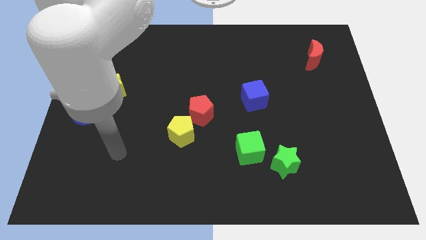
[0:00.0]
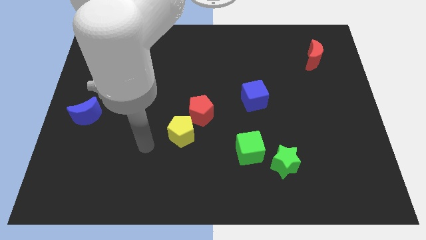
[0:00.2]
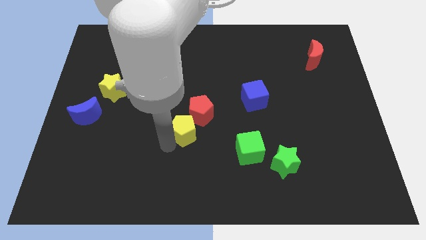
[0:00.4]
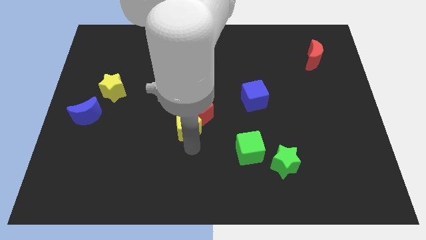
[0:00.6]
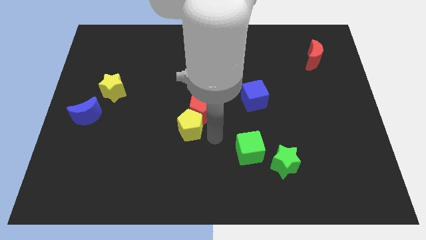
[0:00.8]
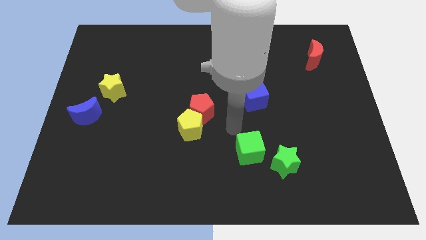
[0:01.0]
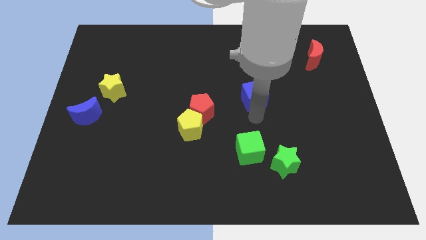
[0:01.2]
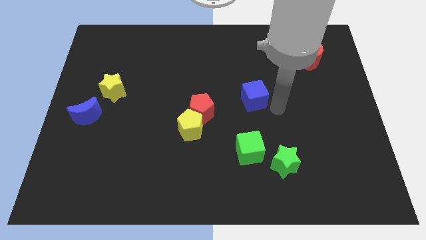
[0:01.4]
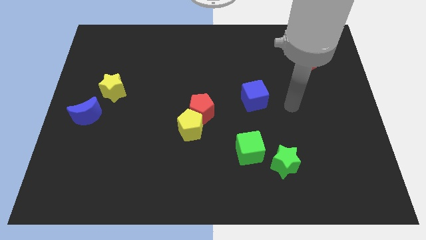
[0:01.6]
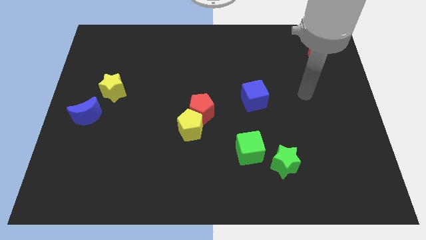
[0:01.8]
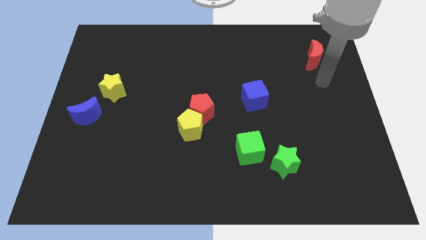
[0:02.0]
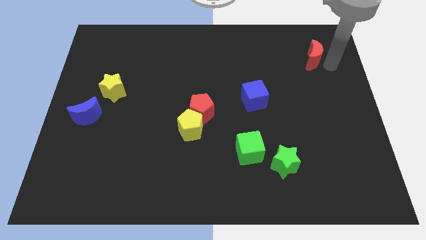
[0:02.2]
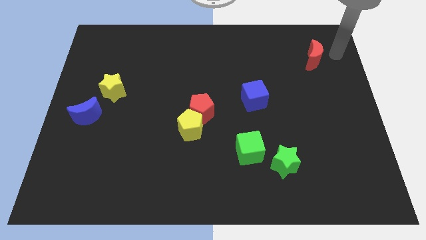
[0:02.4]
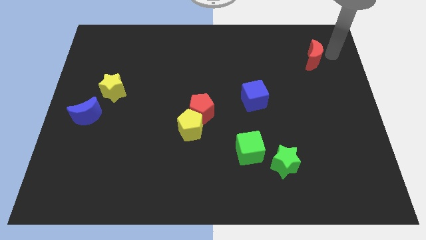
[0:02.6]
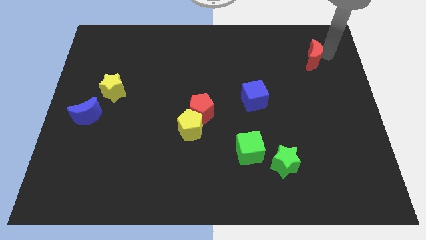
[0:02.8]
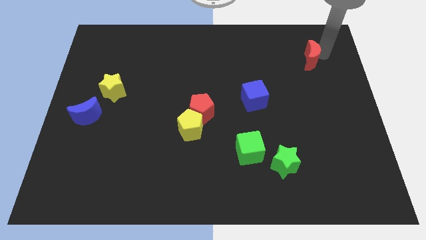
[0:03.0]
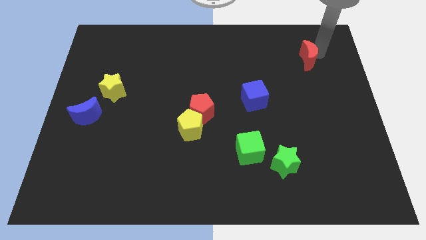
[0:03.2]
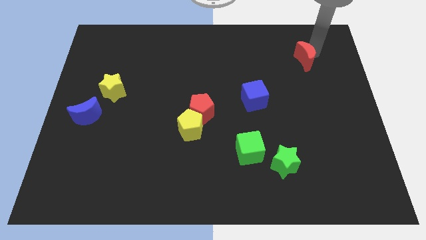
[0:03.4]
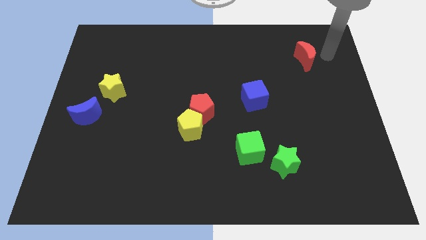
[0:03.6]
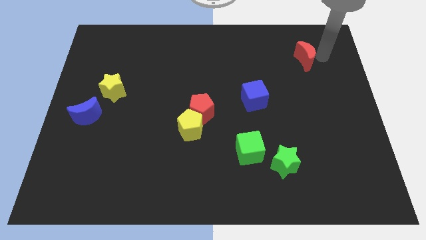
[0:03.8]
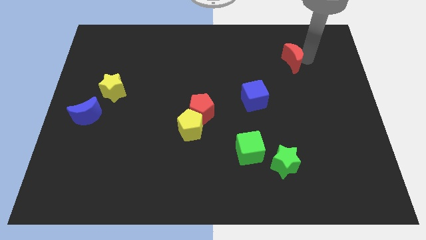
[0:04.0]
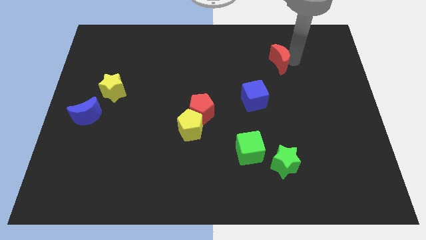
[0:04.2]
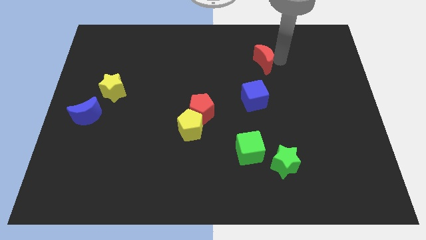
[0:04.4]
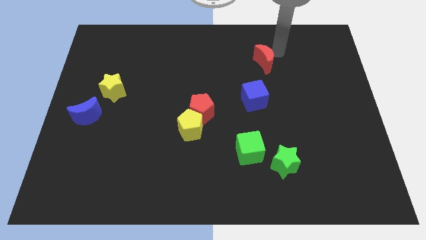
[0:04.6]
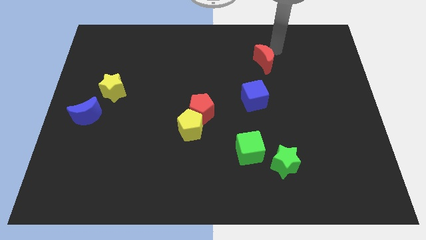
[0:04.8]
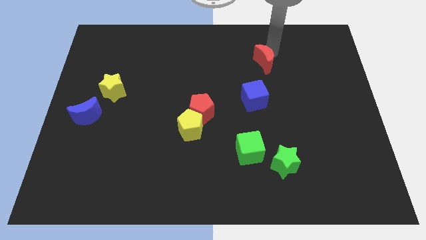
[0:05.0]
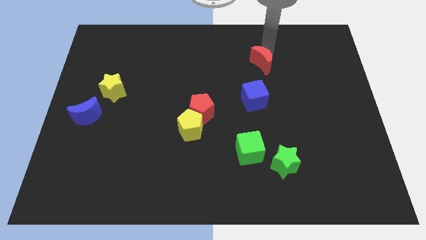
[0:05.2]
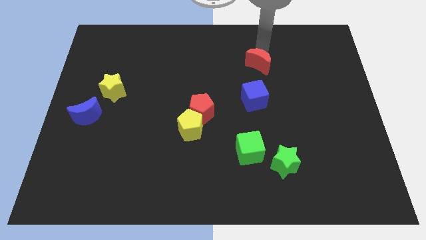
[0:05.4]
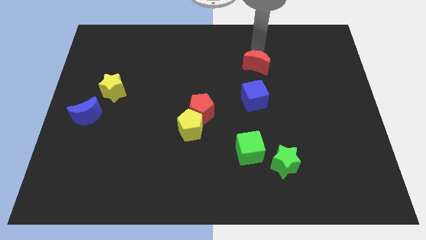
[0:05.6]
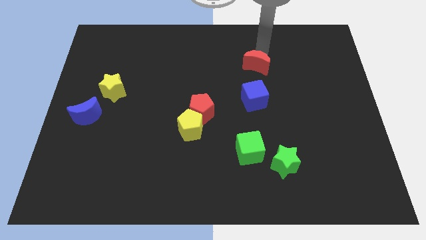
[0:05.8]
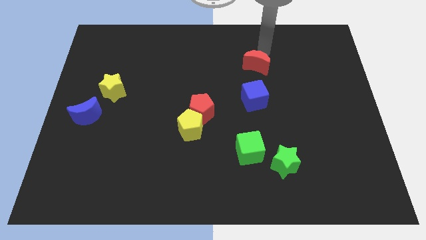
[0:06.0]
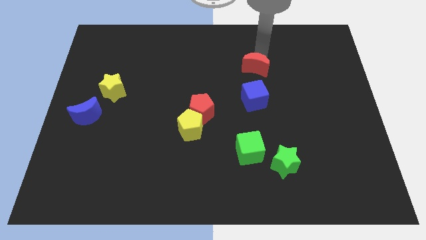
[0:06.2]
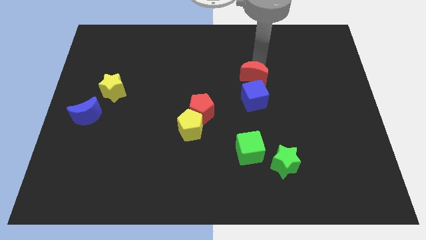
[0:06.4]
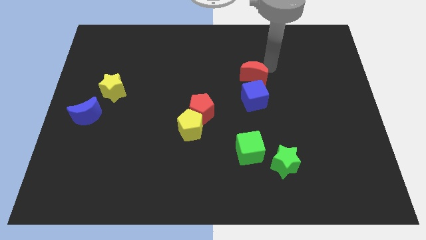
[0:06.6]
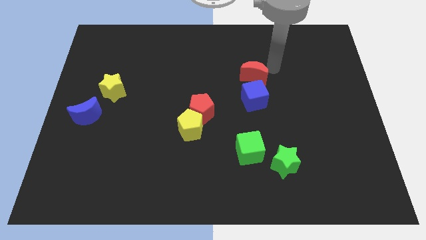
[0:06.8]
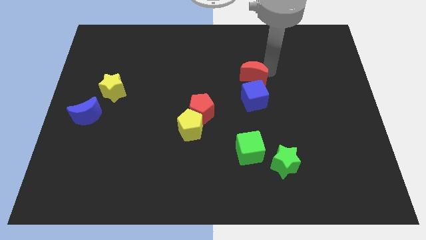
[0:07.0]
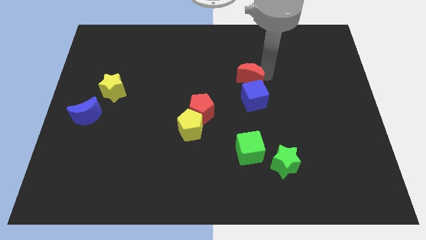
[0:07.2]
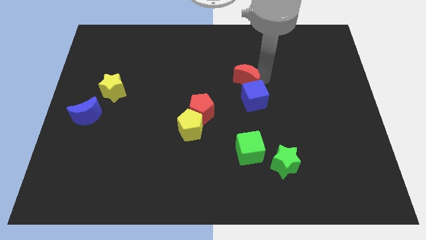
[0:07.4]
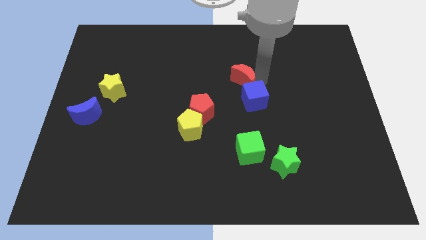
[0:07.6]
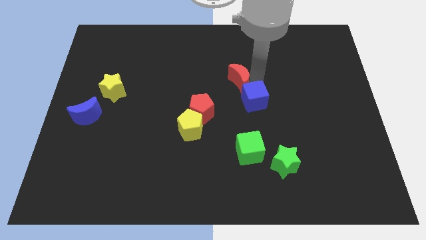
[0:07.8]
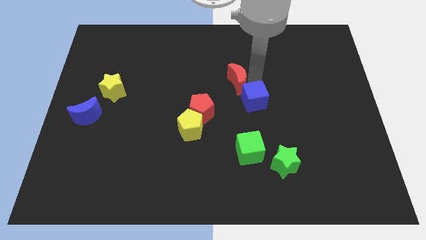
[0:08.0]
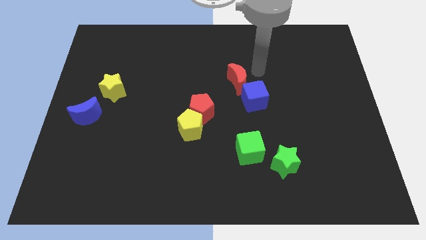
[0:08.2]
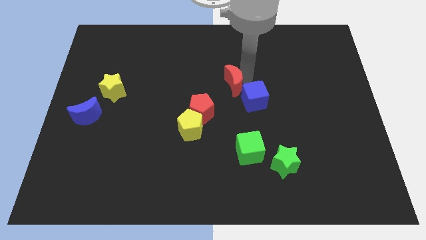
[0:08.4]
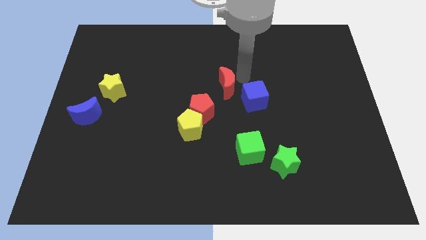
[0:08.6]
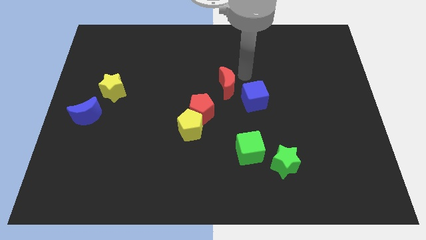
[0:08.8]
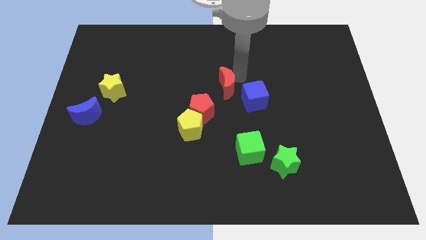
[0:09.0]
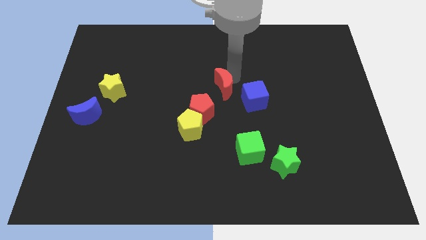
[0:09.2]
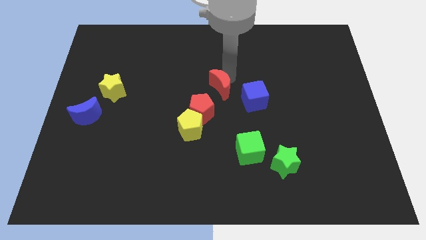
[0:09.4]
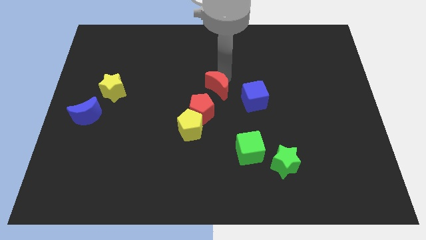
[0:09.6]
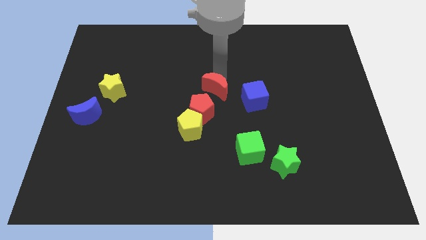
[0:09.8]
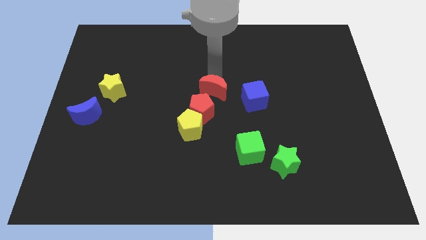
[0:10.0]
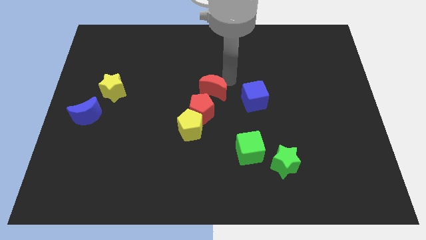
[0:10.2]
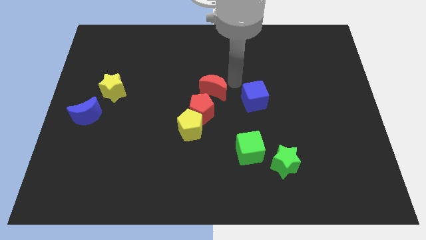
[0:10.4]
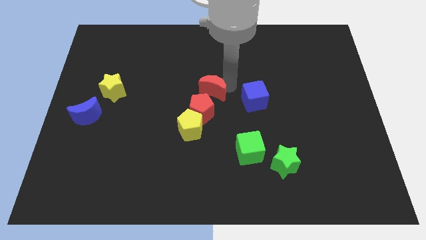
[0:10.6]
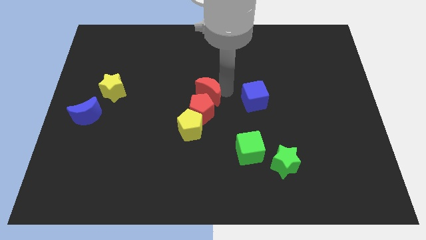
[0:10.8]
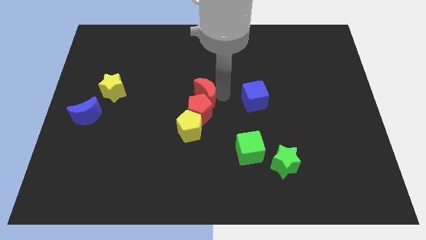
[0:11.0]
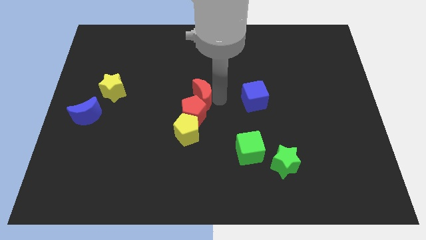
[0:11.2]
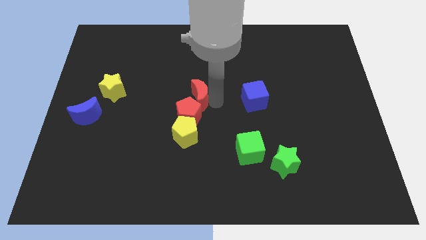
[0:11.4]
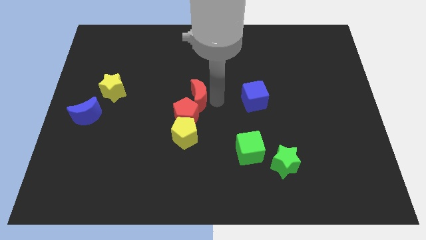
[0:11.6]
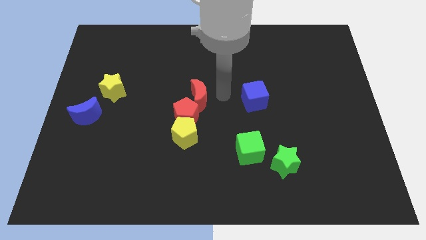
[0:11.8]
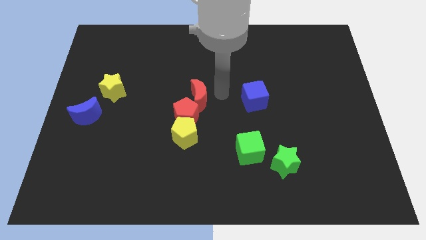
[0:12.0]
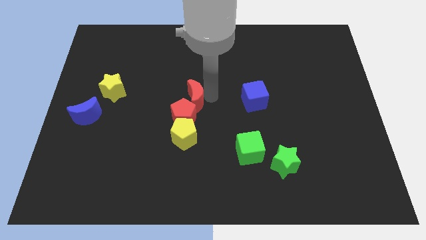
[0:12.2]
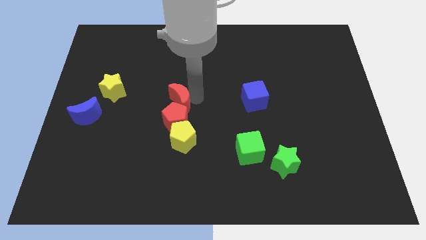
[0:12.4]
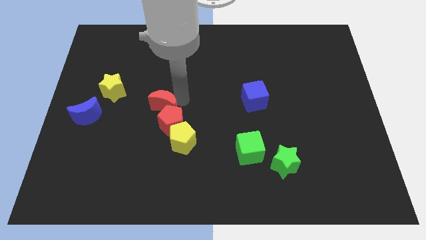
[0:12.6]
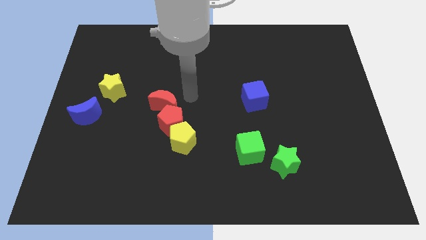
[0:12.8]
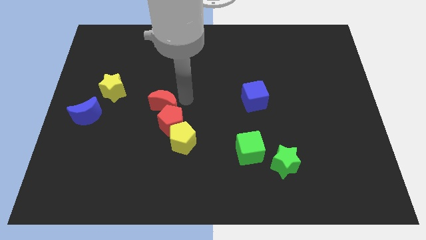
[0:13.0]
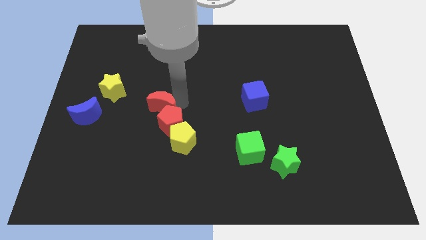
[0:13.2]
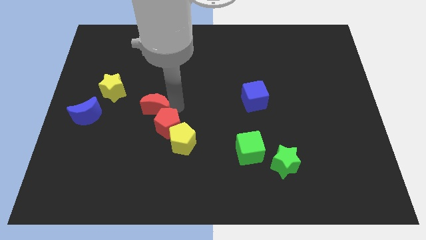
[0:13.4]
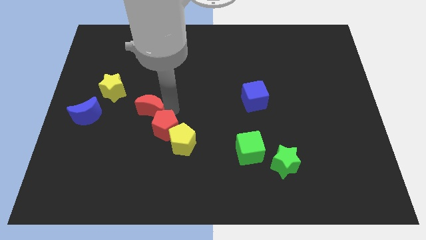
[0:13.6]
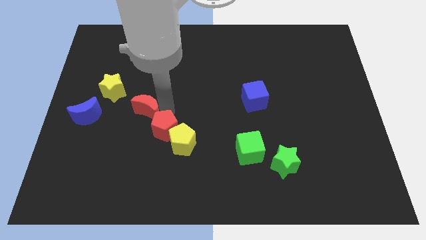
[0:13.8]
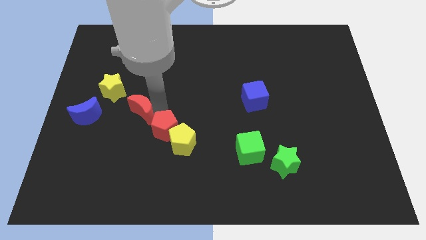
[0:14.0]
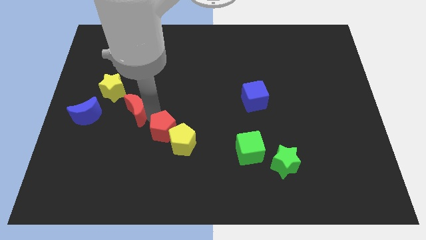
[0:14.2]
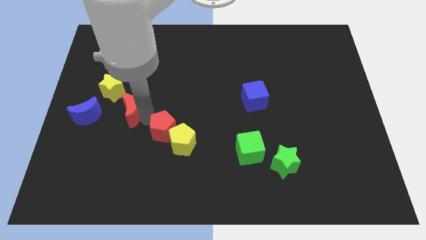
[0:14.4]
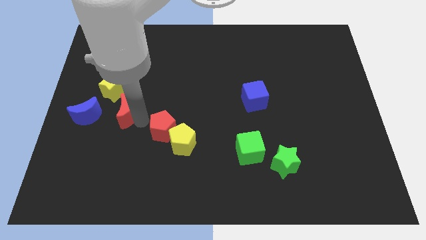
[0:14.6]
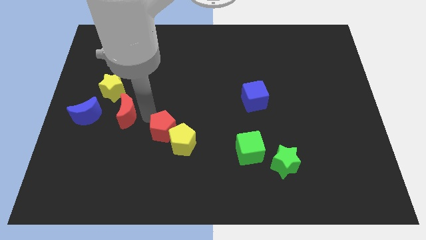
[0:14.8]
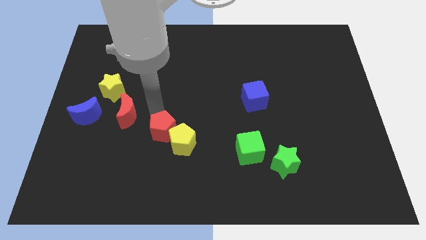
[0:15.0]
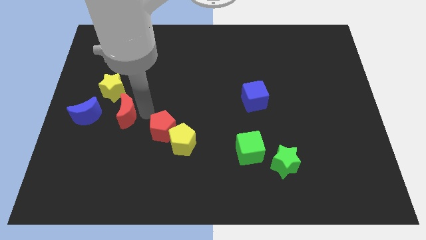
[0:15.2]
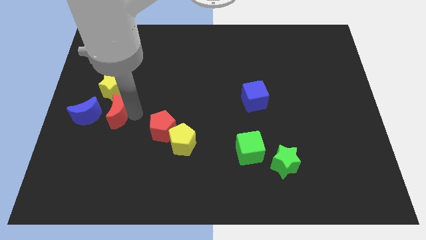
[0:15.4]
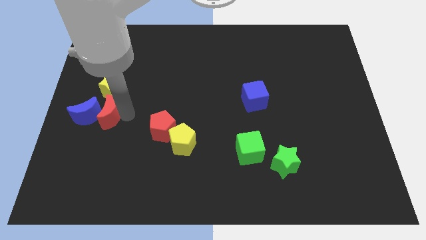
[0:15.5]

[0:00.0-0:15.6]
push the red moon next to the blue moon
